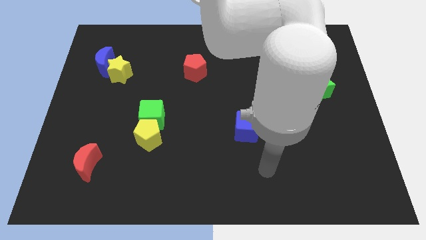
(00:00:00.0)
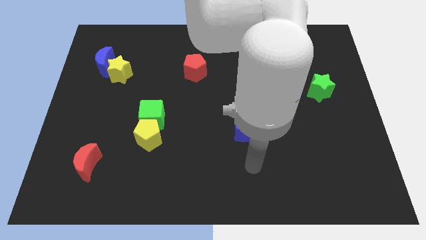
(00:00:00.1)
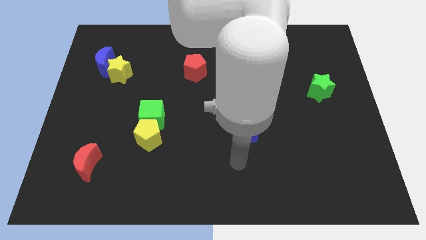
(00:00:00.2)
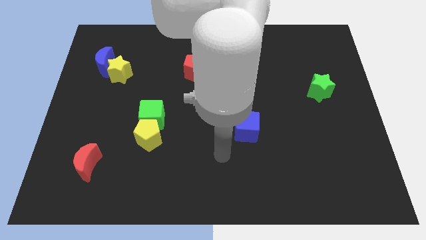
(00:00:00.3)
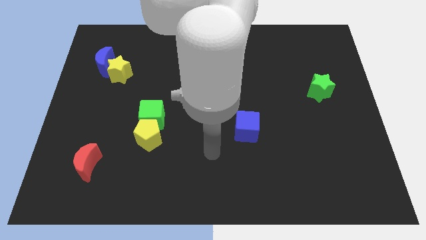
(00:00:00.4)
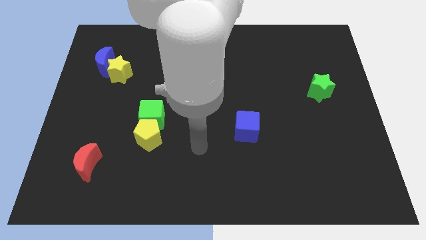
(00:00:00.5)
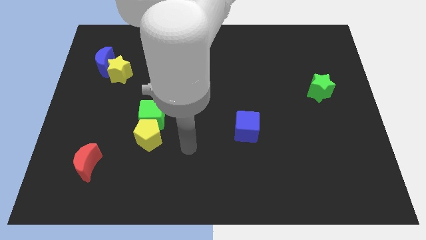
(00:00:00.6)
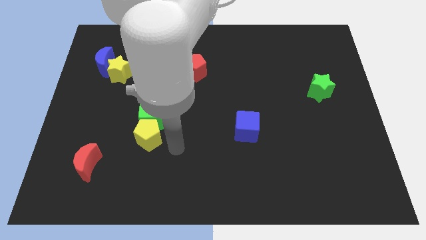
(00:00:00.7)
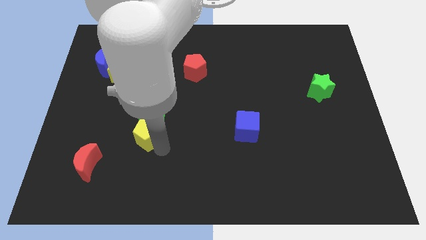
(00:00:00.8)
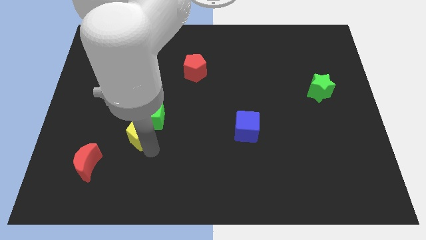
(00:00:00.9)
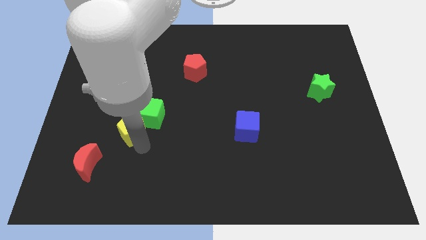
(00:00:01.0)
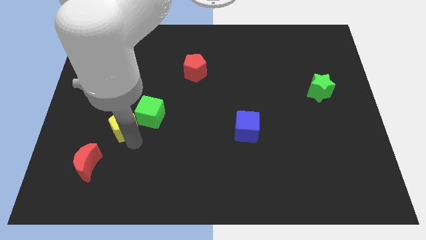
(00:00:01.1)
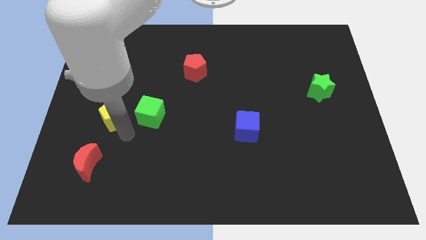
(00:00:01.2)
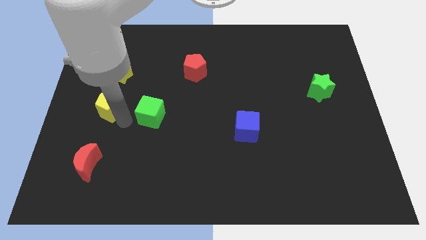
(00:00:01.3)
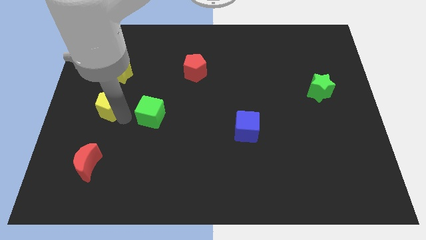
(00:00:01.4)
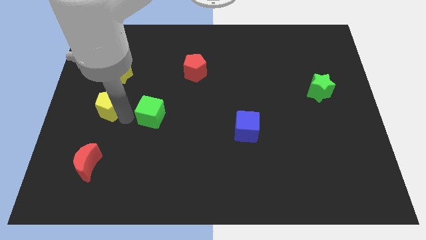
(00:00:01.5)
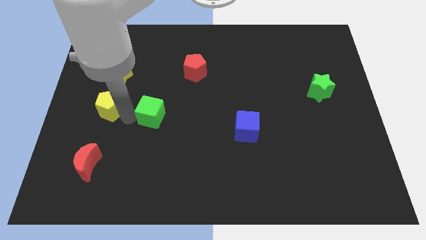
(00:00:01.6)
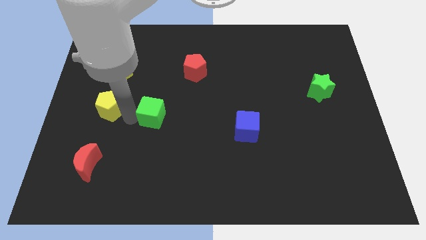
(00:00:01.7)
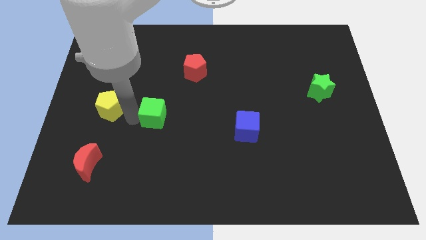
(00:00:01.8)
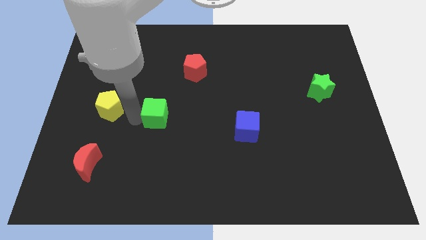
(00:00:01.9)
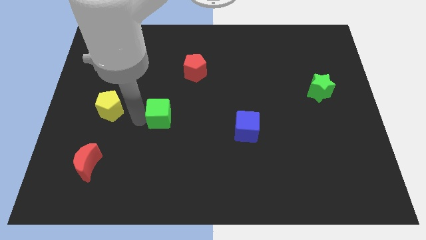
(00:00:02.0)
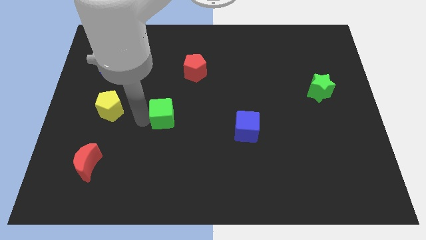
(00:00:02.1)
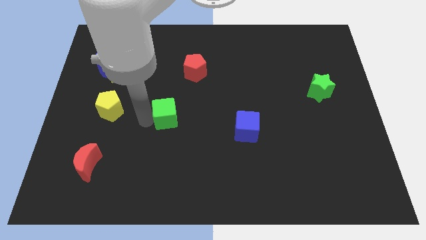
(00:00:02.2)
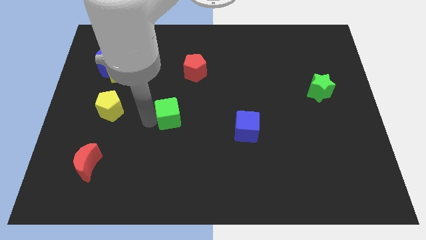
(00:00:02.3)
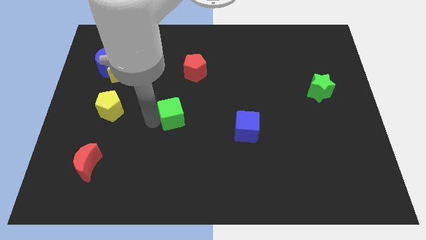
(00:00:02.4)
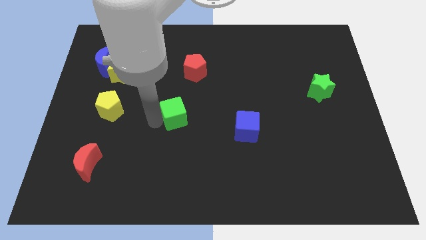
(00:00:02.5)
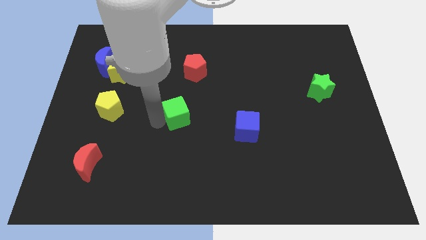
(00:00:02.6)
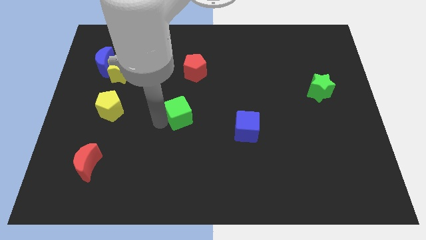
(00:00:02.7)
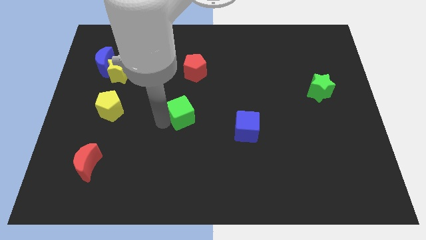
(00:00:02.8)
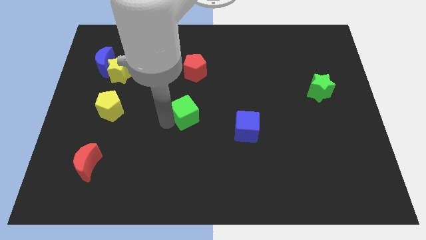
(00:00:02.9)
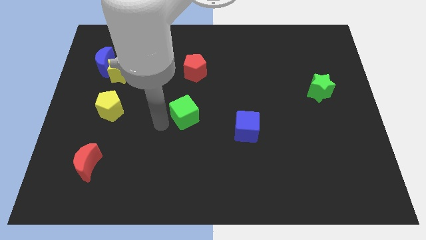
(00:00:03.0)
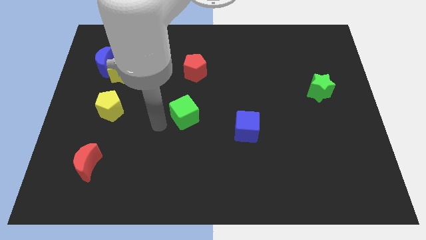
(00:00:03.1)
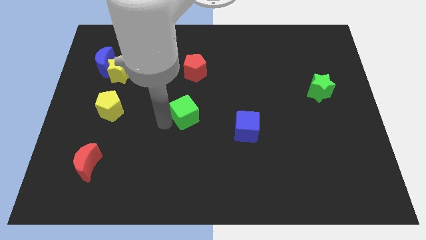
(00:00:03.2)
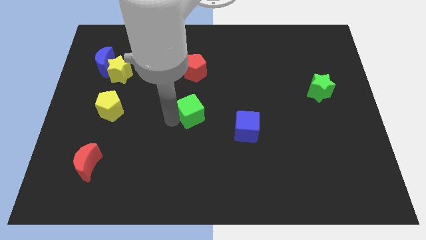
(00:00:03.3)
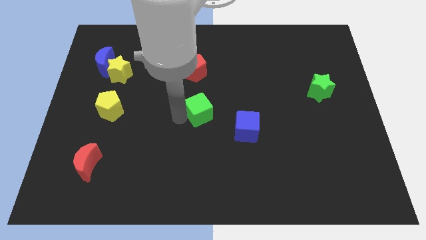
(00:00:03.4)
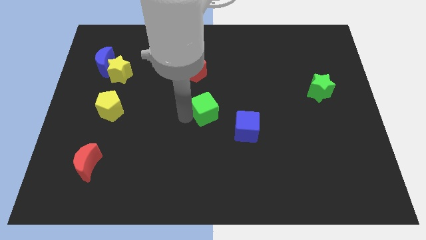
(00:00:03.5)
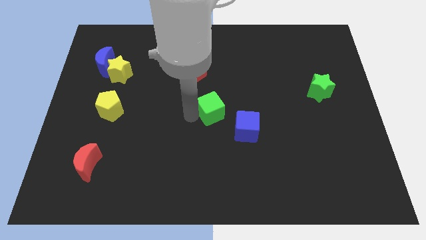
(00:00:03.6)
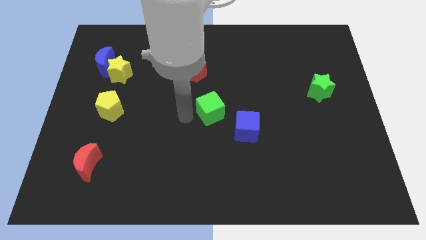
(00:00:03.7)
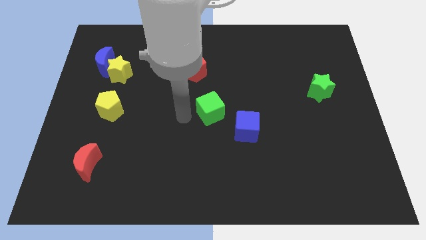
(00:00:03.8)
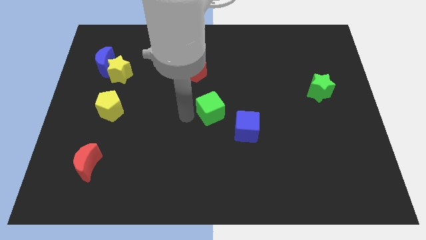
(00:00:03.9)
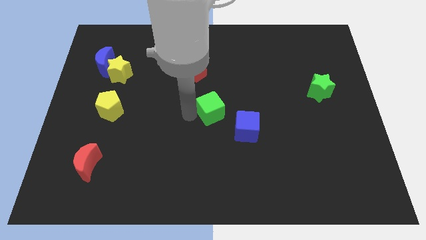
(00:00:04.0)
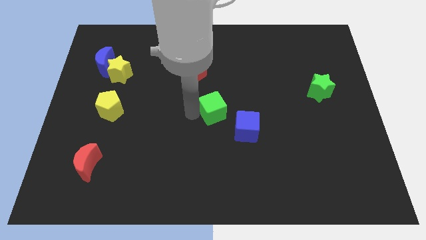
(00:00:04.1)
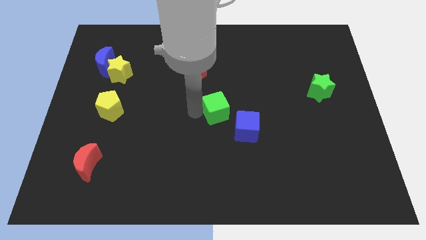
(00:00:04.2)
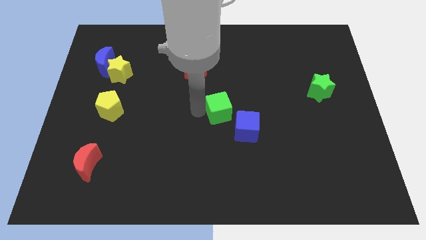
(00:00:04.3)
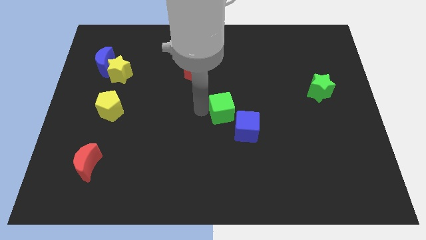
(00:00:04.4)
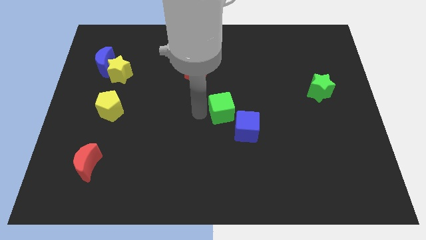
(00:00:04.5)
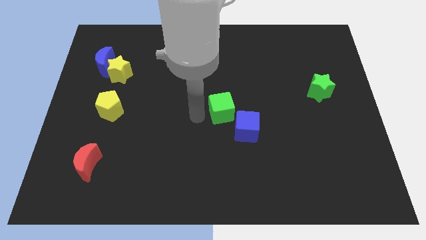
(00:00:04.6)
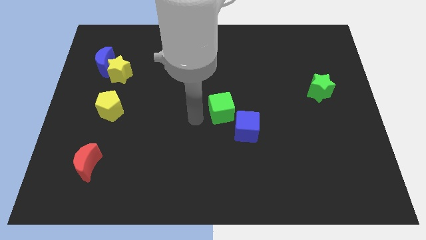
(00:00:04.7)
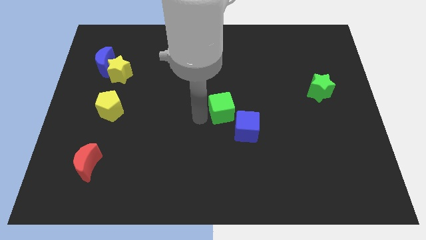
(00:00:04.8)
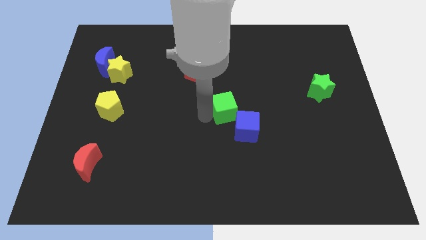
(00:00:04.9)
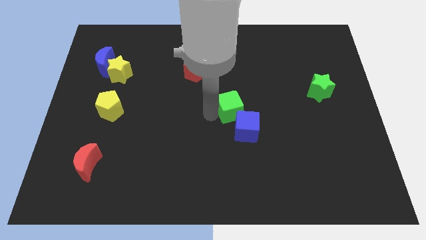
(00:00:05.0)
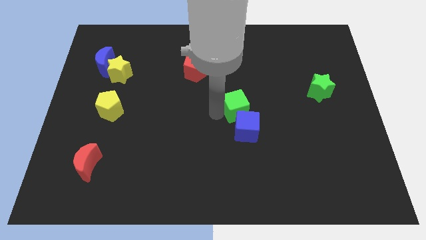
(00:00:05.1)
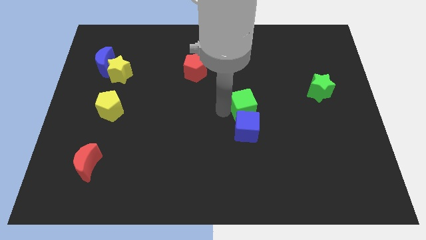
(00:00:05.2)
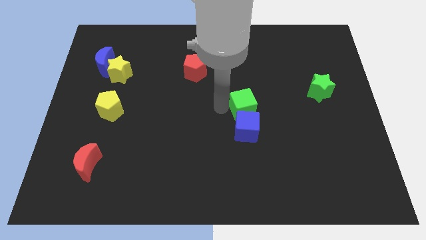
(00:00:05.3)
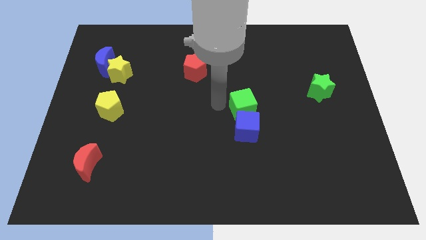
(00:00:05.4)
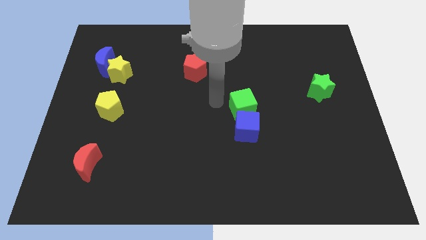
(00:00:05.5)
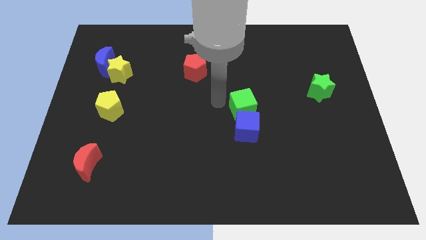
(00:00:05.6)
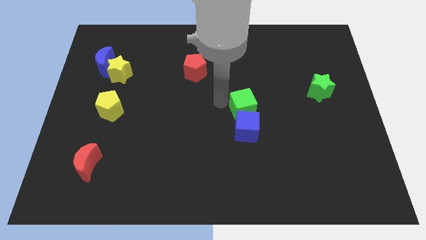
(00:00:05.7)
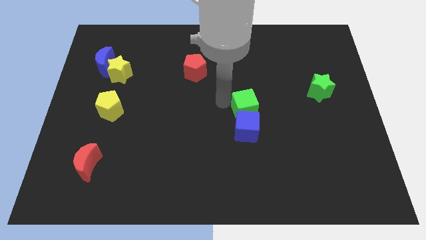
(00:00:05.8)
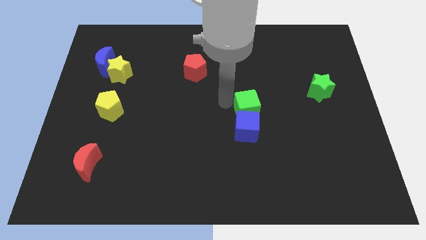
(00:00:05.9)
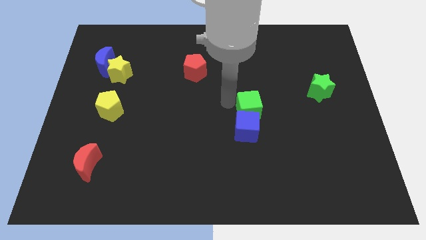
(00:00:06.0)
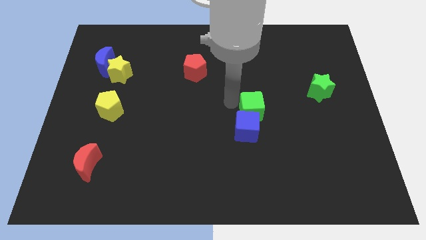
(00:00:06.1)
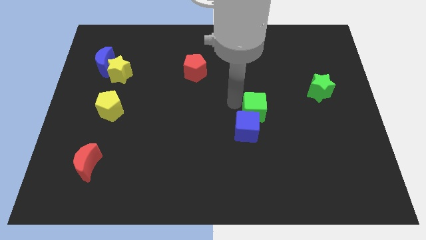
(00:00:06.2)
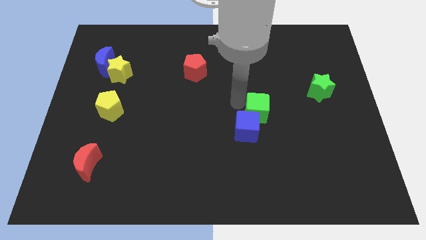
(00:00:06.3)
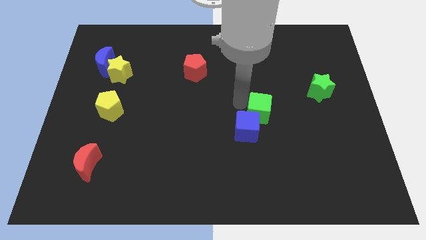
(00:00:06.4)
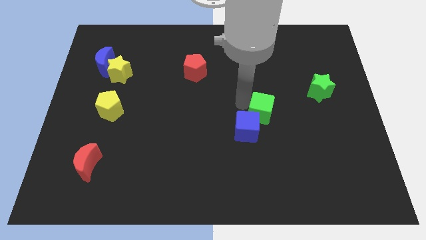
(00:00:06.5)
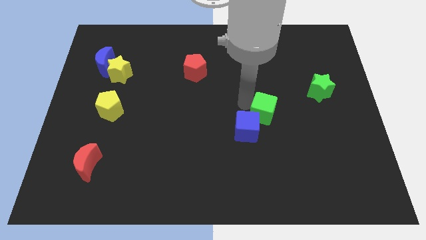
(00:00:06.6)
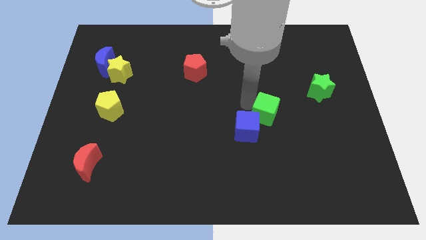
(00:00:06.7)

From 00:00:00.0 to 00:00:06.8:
push the green cube to the right side of the blue cube
